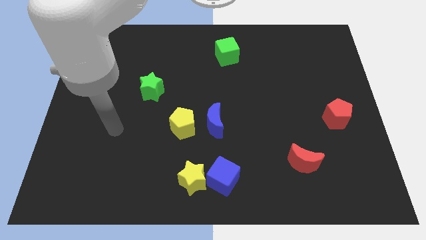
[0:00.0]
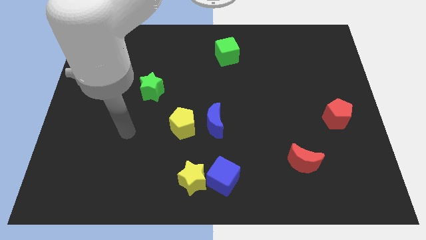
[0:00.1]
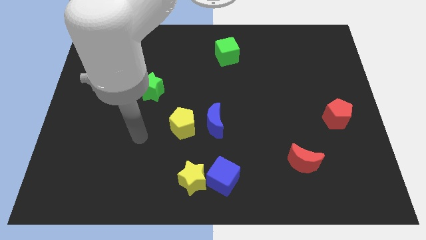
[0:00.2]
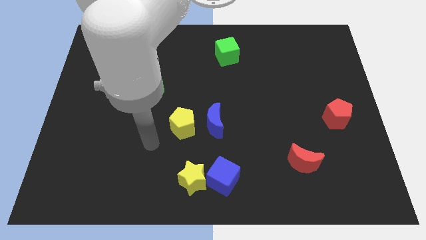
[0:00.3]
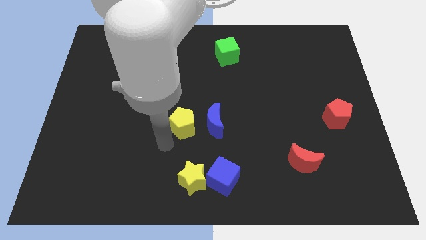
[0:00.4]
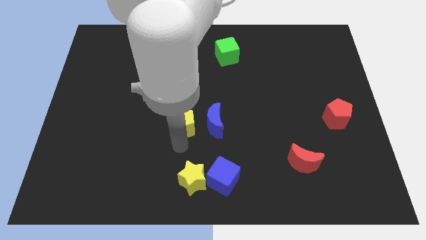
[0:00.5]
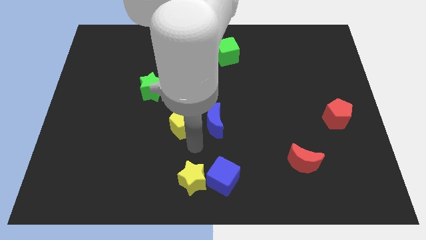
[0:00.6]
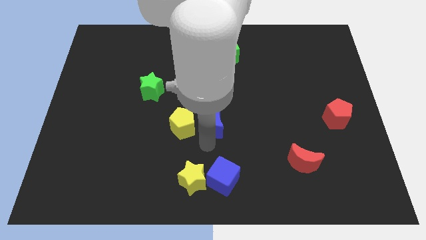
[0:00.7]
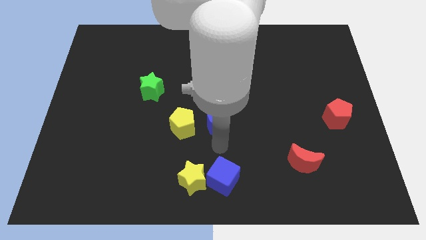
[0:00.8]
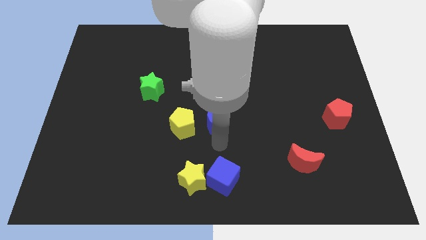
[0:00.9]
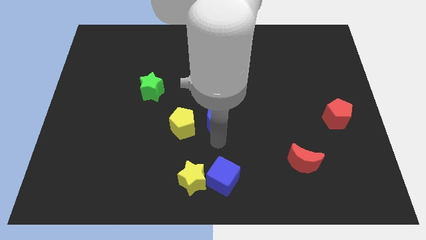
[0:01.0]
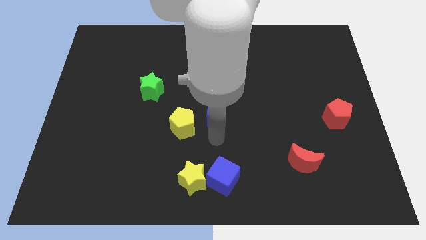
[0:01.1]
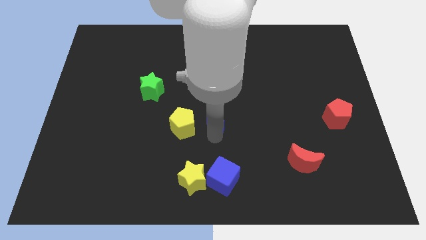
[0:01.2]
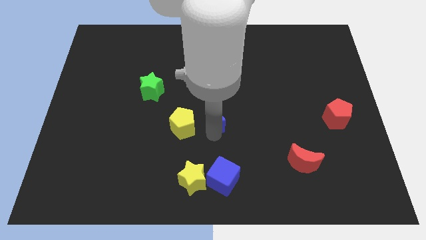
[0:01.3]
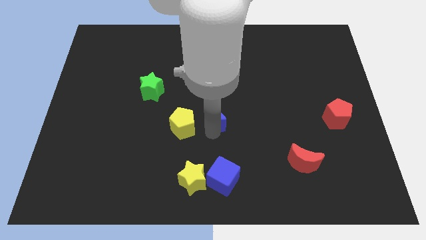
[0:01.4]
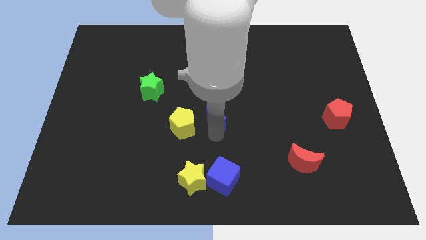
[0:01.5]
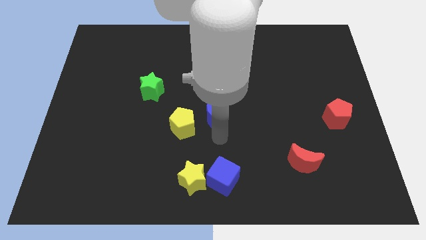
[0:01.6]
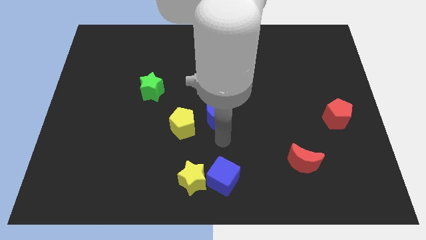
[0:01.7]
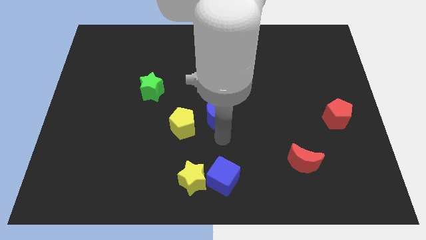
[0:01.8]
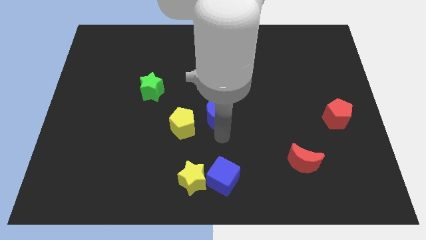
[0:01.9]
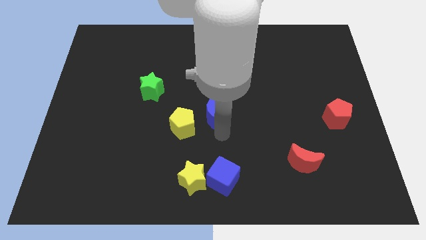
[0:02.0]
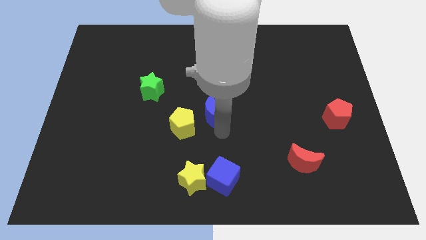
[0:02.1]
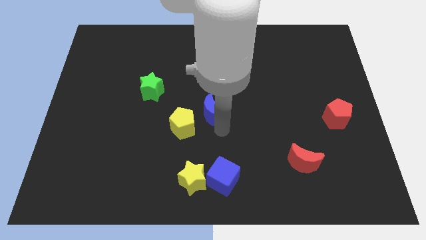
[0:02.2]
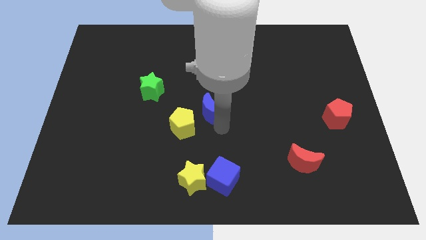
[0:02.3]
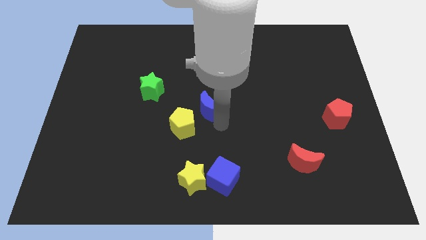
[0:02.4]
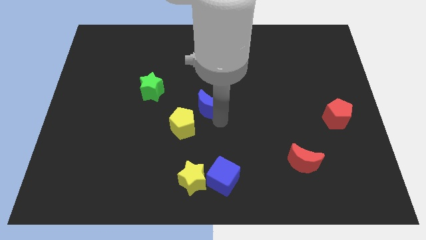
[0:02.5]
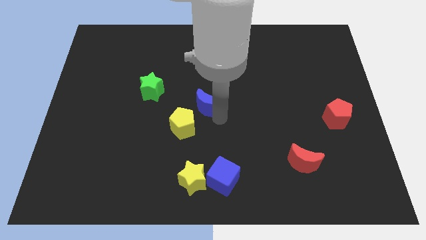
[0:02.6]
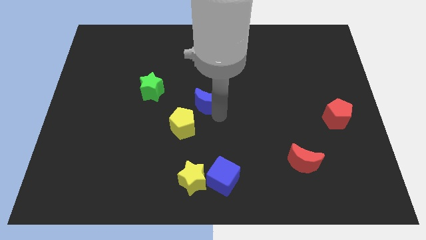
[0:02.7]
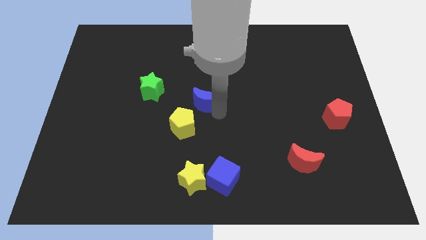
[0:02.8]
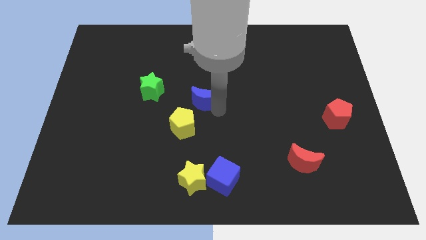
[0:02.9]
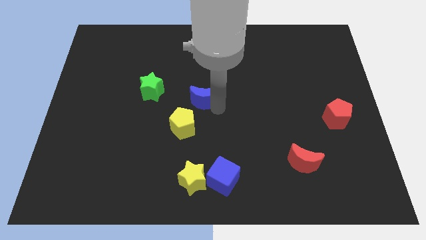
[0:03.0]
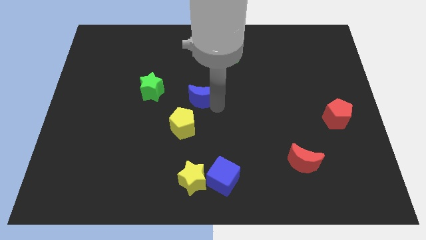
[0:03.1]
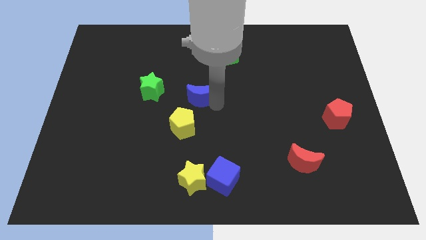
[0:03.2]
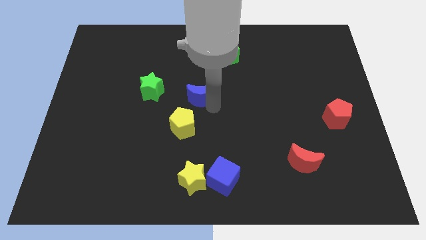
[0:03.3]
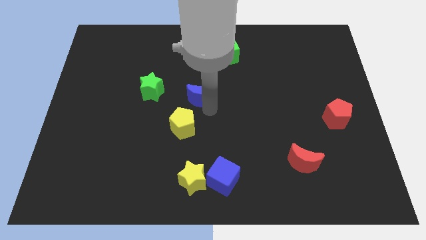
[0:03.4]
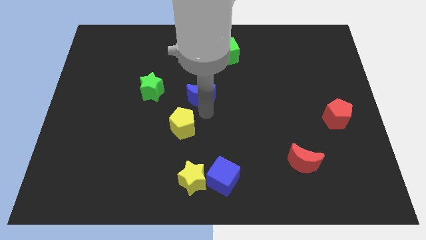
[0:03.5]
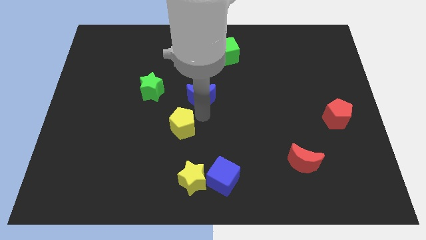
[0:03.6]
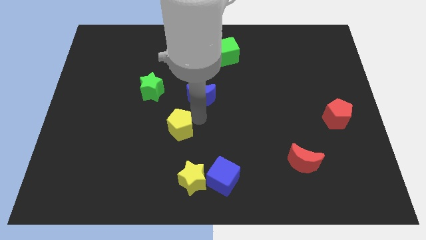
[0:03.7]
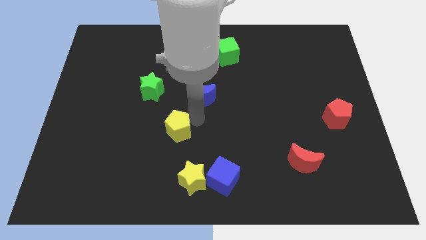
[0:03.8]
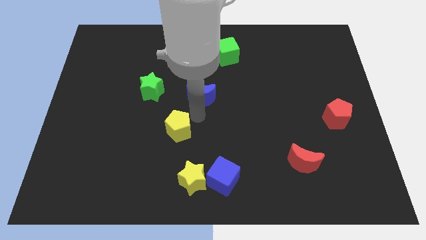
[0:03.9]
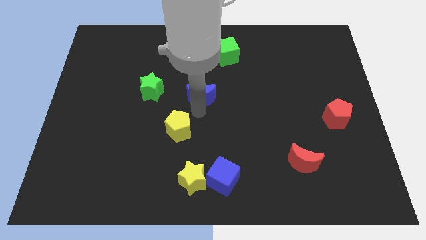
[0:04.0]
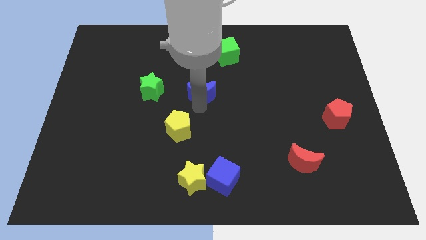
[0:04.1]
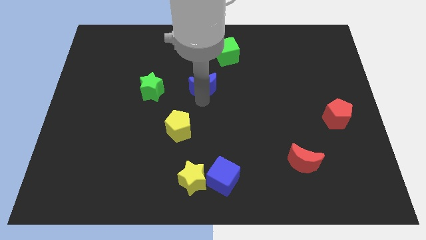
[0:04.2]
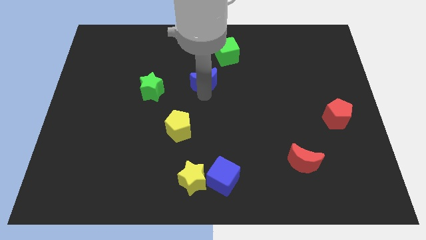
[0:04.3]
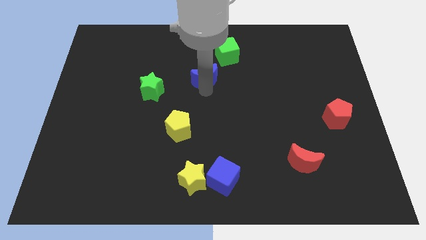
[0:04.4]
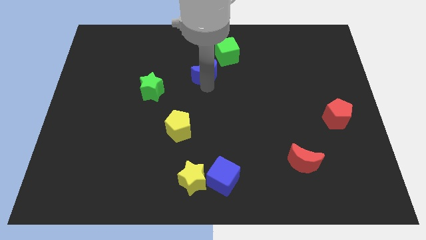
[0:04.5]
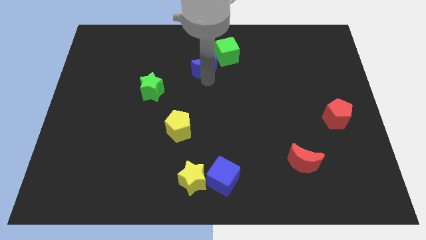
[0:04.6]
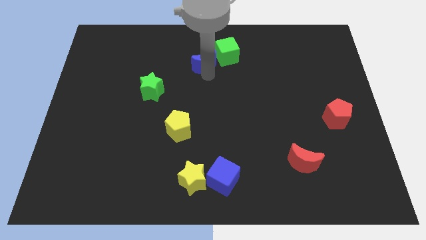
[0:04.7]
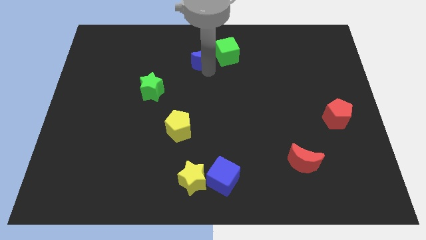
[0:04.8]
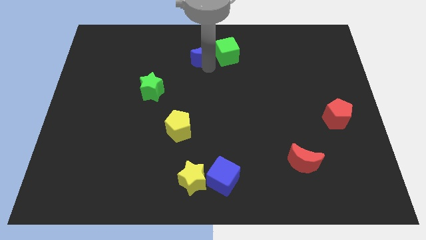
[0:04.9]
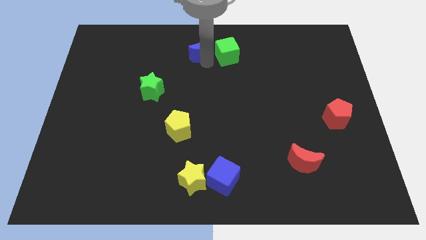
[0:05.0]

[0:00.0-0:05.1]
slide the blue moon to the top

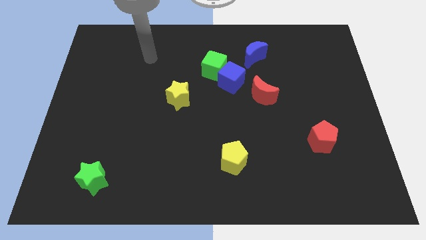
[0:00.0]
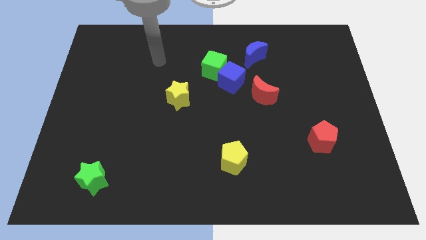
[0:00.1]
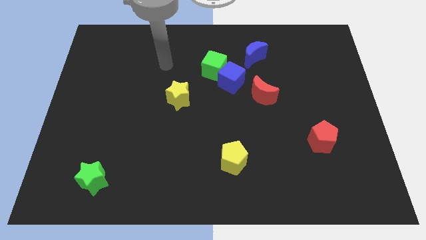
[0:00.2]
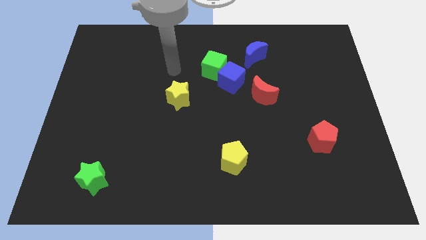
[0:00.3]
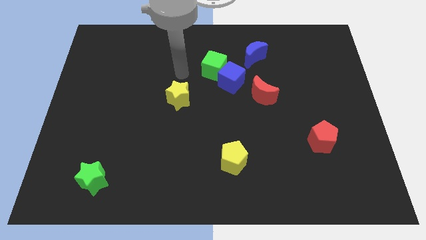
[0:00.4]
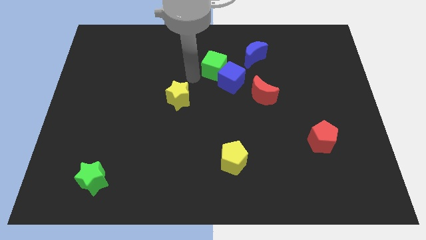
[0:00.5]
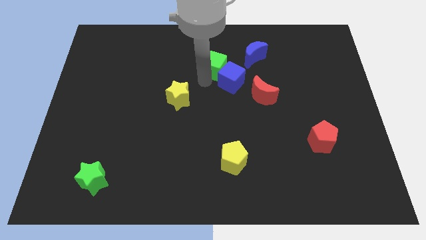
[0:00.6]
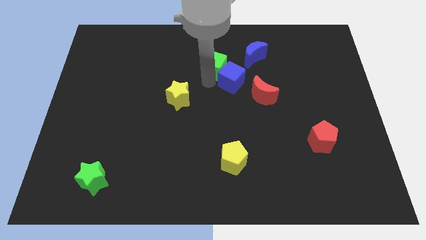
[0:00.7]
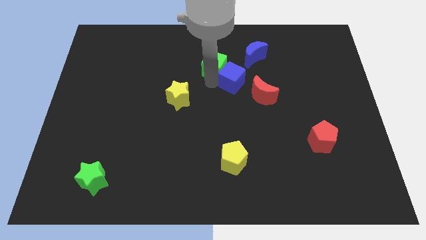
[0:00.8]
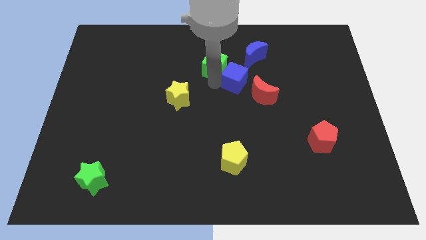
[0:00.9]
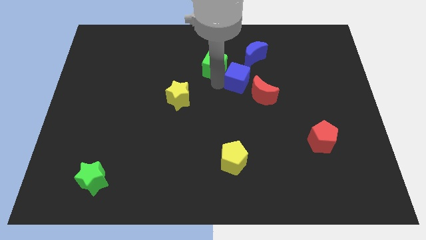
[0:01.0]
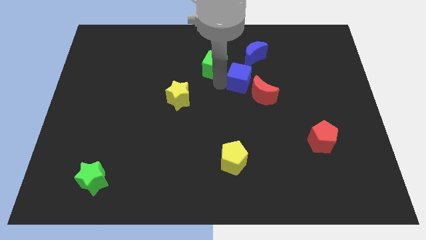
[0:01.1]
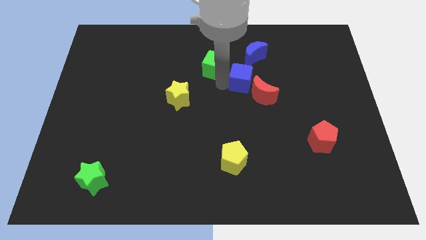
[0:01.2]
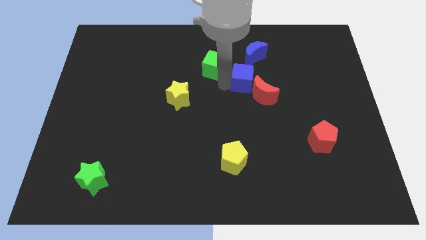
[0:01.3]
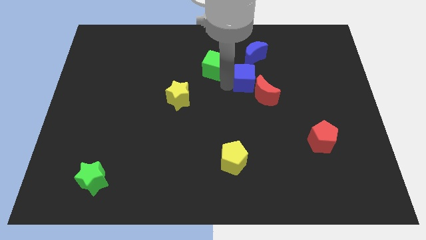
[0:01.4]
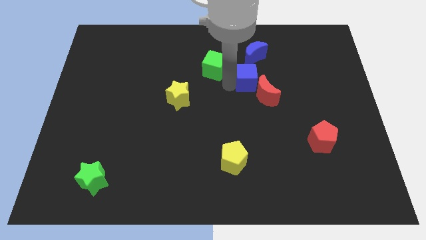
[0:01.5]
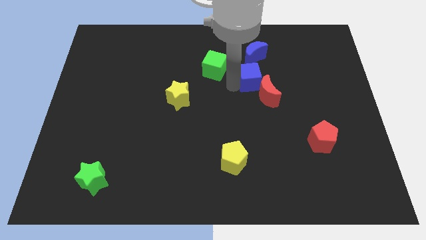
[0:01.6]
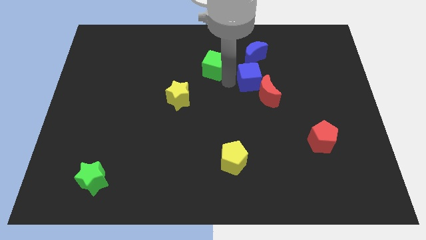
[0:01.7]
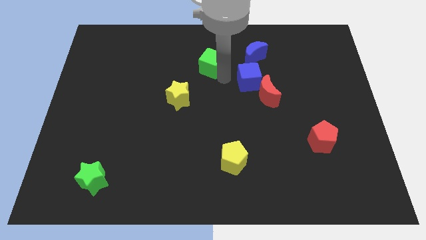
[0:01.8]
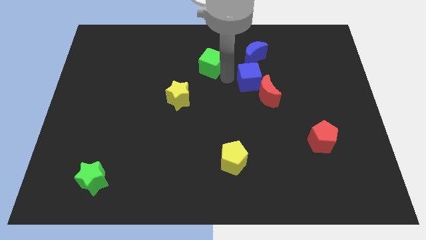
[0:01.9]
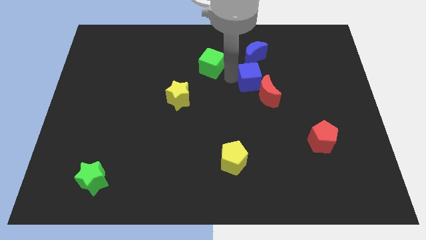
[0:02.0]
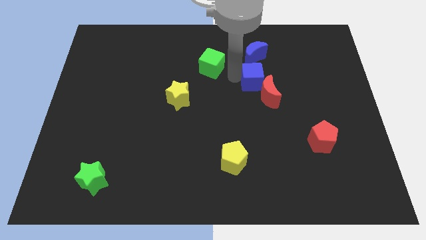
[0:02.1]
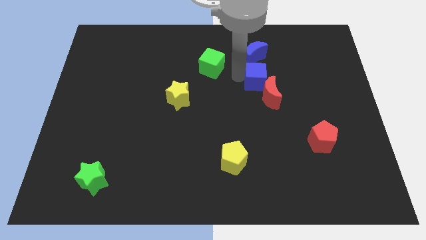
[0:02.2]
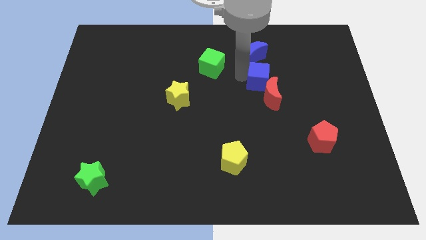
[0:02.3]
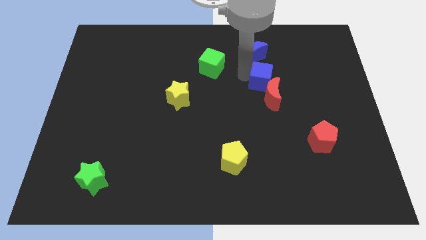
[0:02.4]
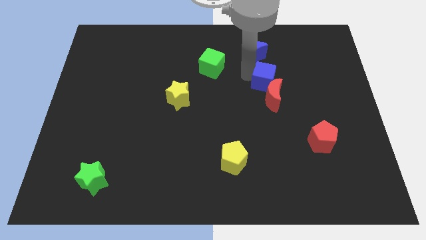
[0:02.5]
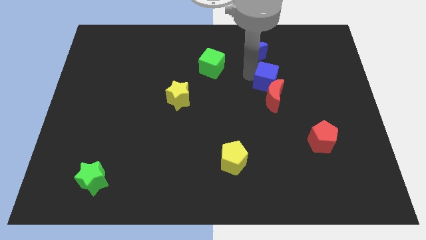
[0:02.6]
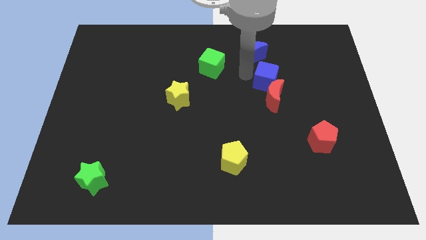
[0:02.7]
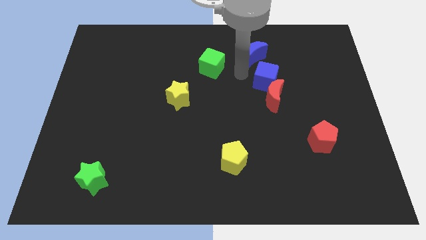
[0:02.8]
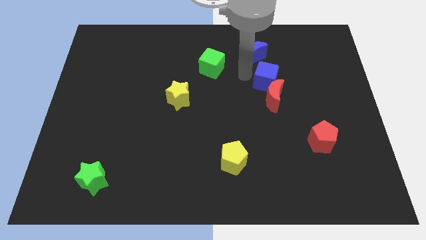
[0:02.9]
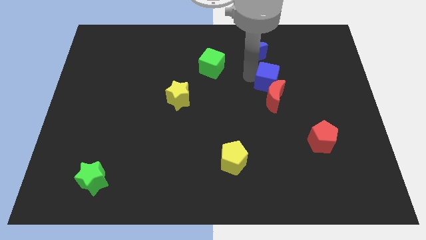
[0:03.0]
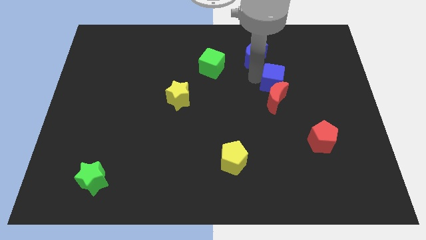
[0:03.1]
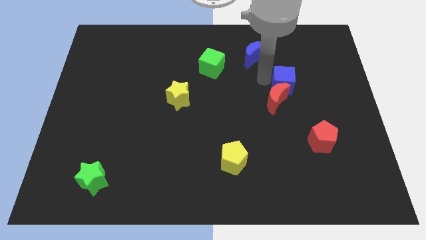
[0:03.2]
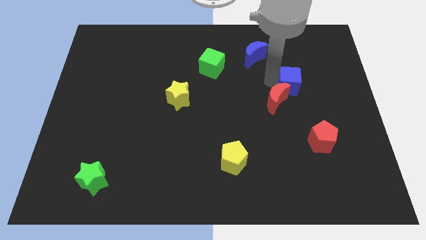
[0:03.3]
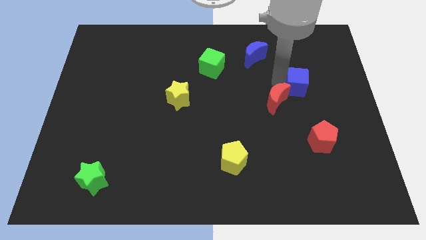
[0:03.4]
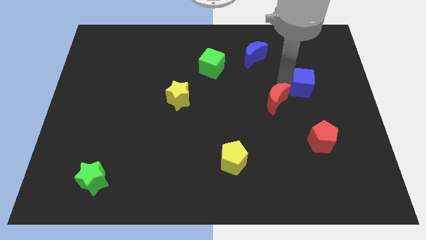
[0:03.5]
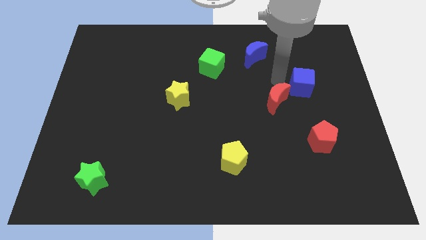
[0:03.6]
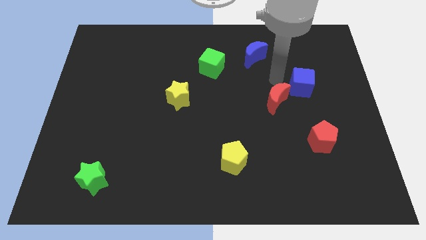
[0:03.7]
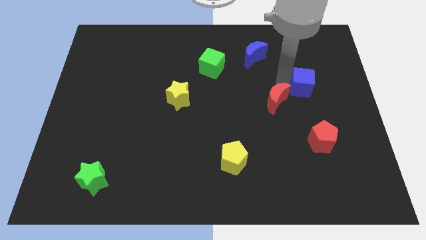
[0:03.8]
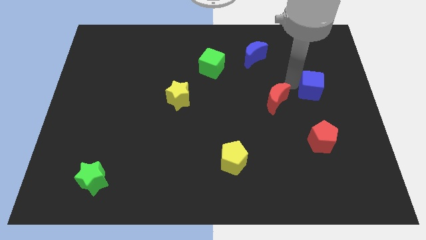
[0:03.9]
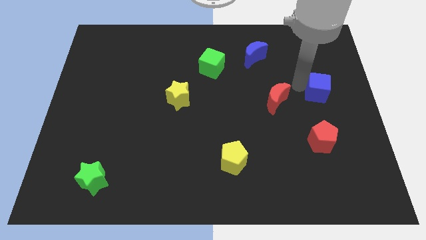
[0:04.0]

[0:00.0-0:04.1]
put the blue cube to the center right
